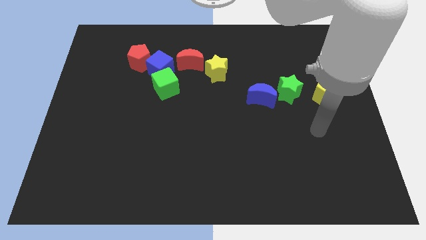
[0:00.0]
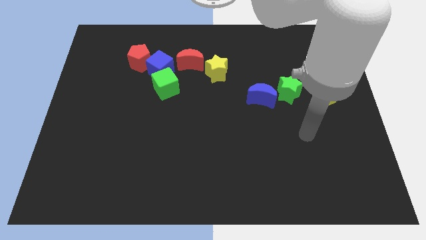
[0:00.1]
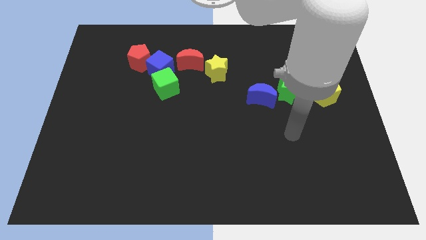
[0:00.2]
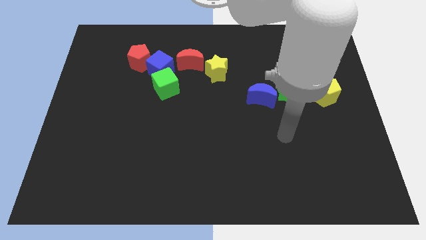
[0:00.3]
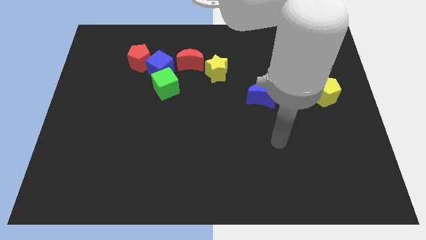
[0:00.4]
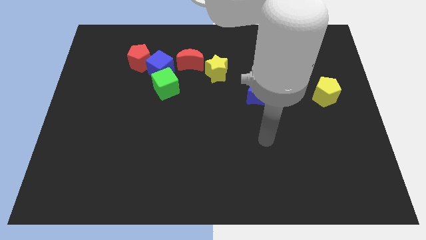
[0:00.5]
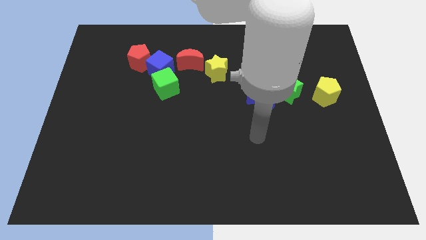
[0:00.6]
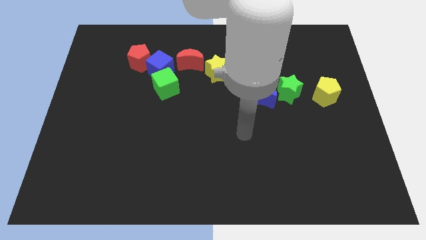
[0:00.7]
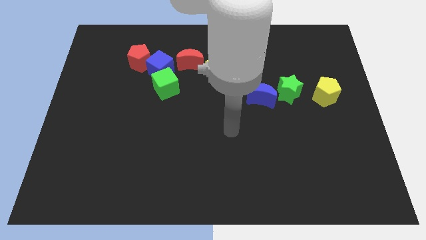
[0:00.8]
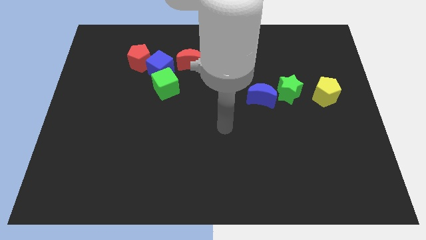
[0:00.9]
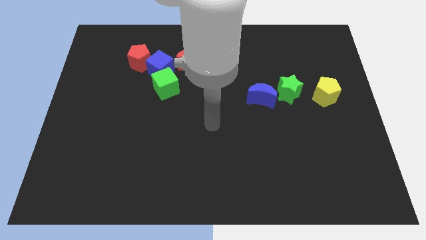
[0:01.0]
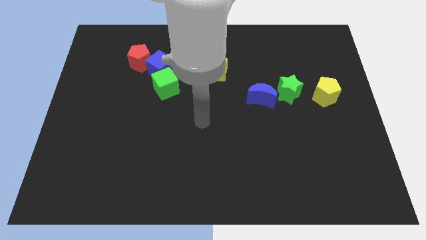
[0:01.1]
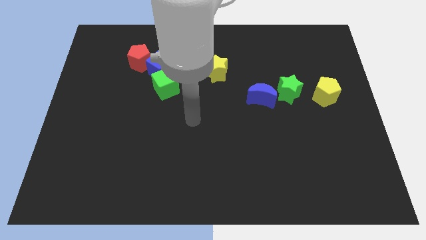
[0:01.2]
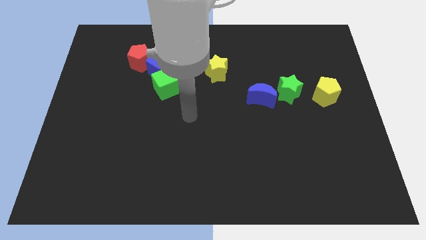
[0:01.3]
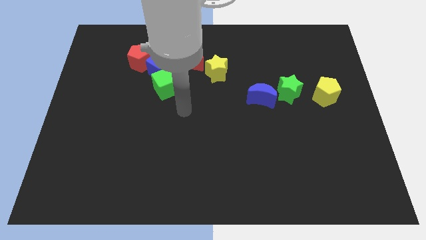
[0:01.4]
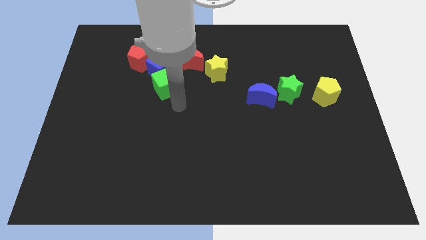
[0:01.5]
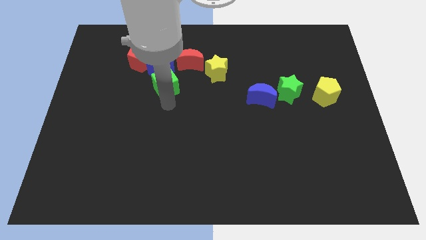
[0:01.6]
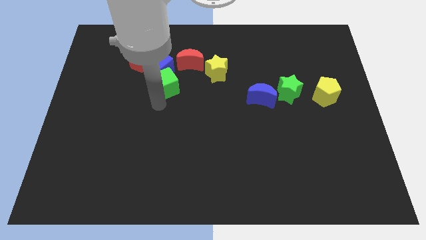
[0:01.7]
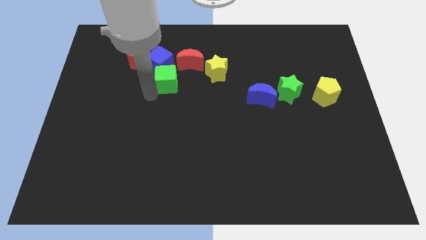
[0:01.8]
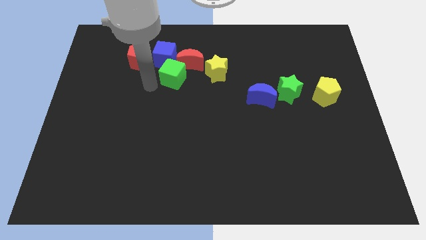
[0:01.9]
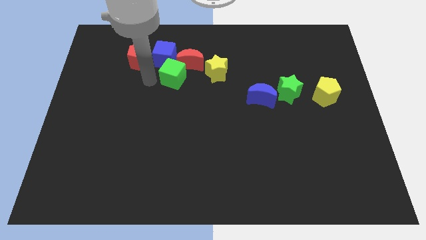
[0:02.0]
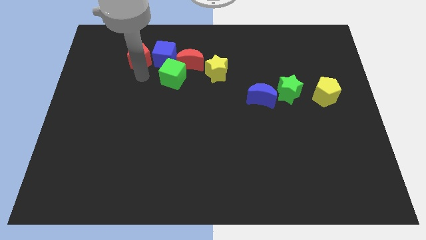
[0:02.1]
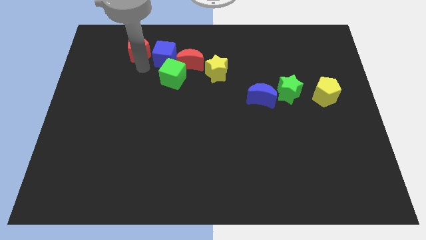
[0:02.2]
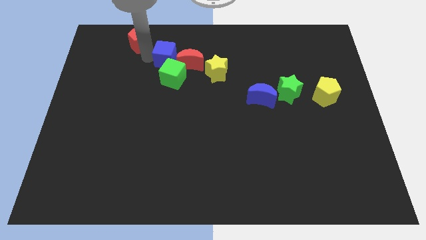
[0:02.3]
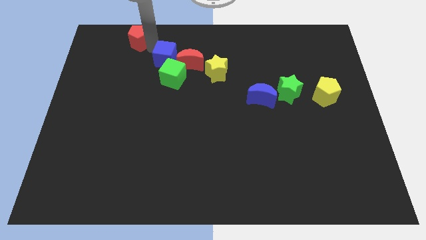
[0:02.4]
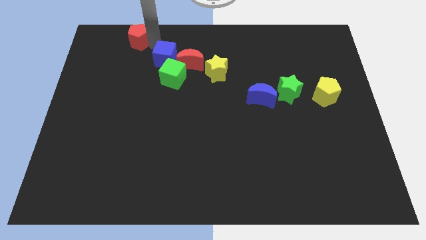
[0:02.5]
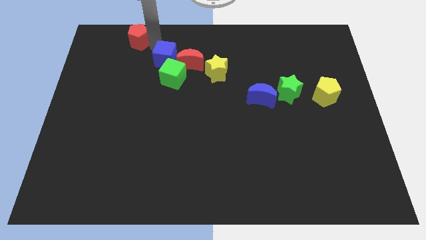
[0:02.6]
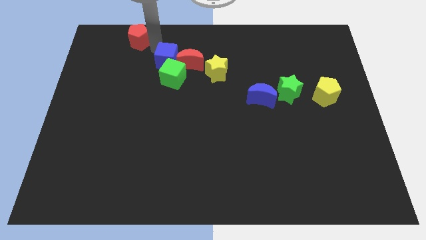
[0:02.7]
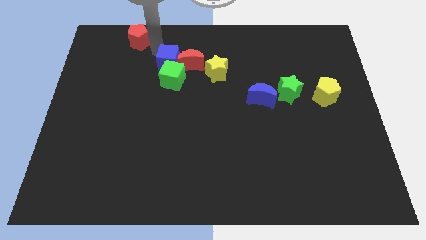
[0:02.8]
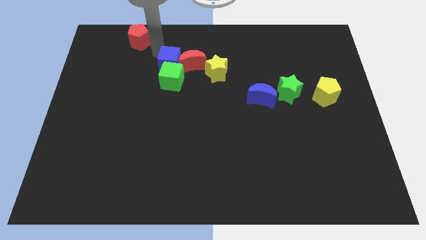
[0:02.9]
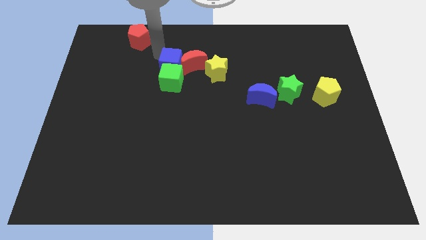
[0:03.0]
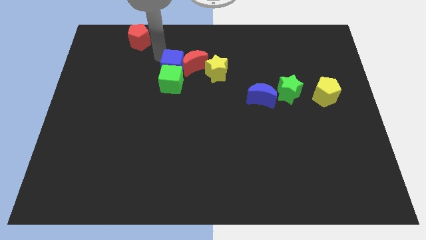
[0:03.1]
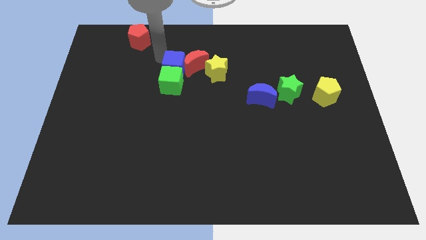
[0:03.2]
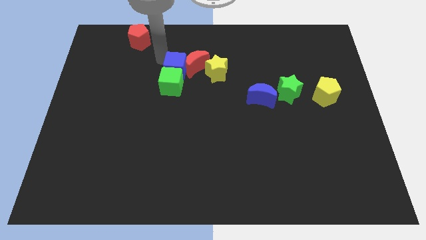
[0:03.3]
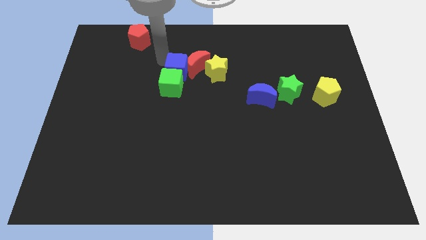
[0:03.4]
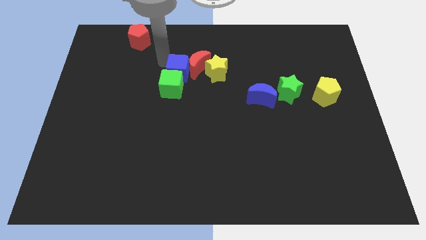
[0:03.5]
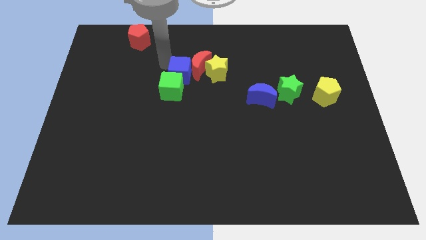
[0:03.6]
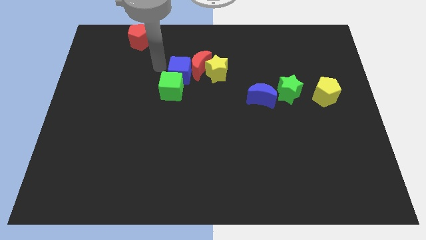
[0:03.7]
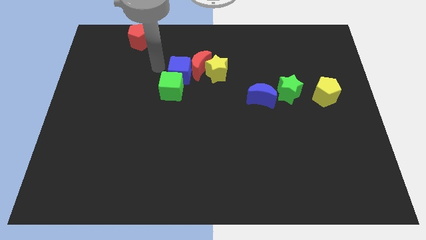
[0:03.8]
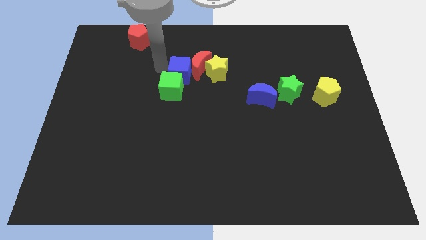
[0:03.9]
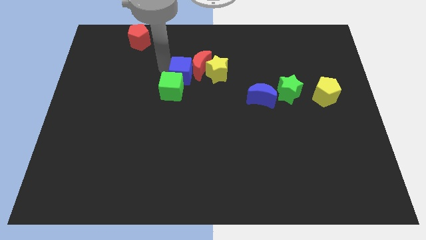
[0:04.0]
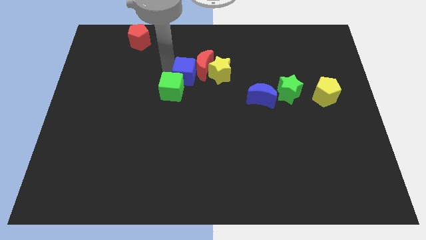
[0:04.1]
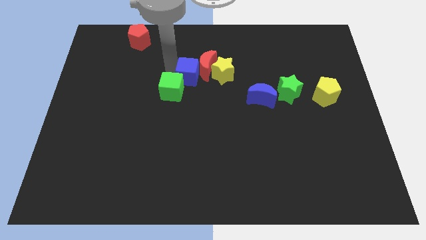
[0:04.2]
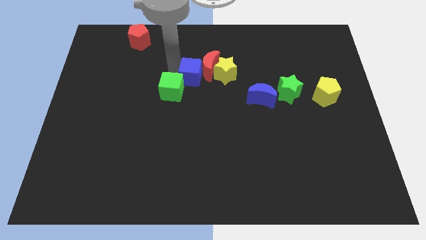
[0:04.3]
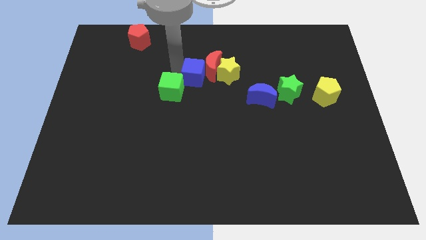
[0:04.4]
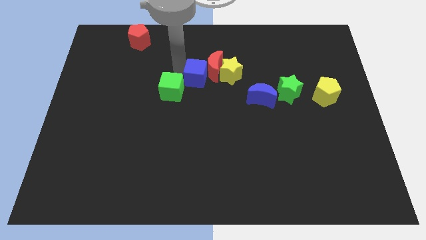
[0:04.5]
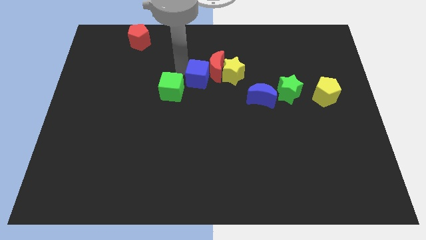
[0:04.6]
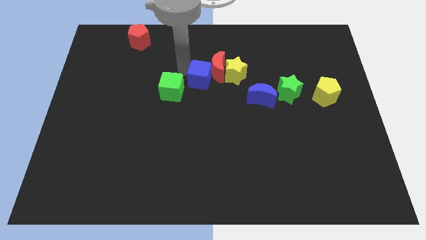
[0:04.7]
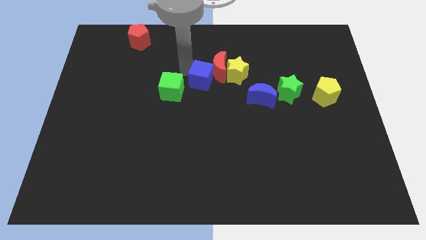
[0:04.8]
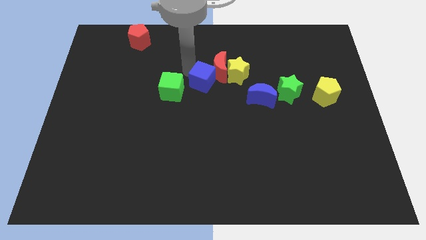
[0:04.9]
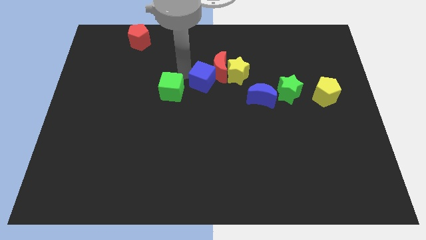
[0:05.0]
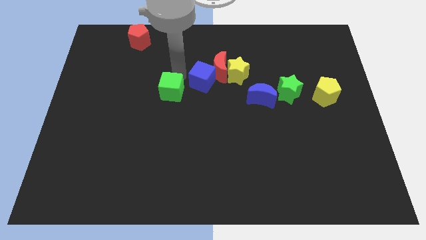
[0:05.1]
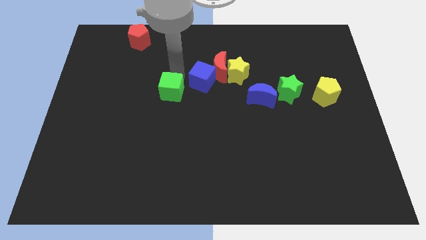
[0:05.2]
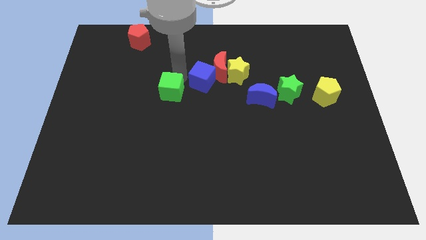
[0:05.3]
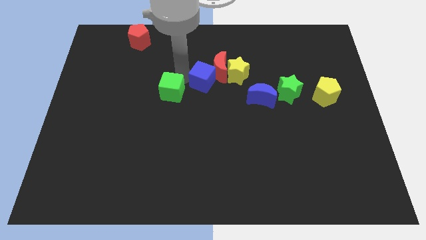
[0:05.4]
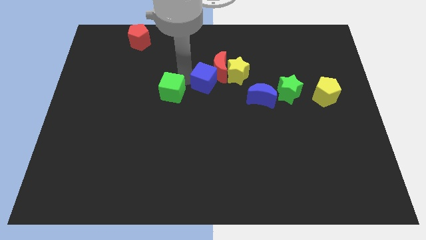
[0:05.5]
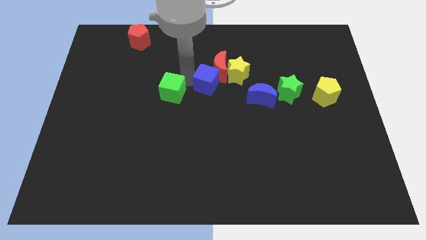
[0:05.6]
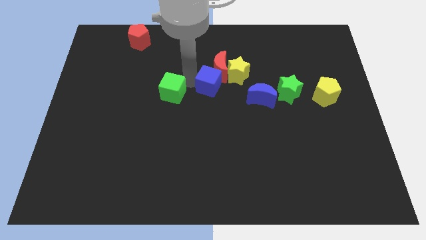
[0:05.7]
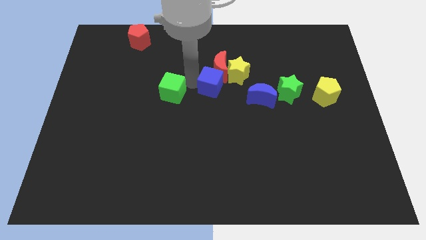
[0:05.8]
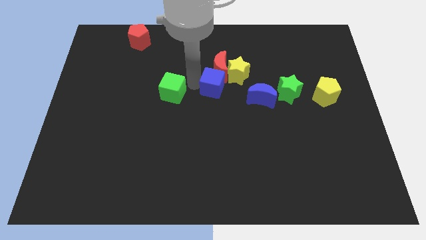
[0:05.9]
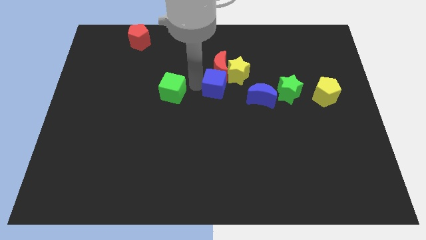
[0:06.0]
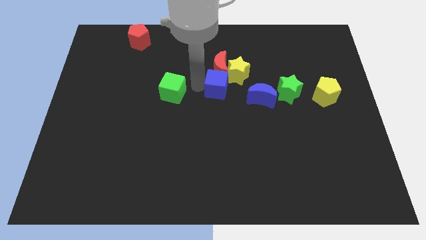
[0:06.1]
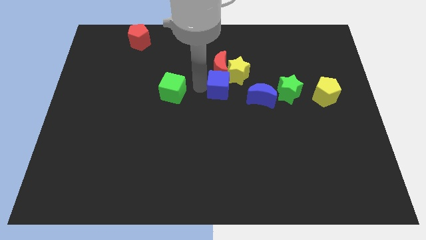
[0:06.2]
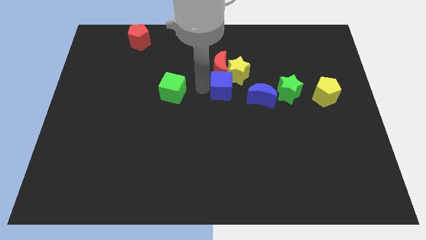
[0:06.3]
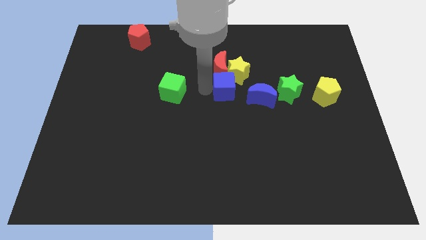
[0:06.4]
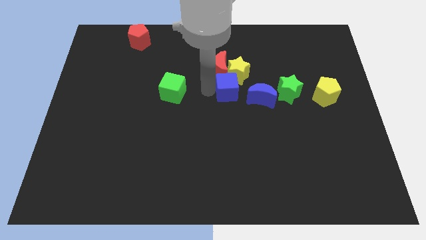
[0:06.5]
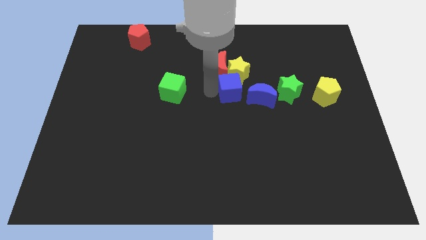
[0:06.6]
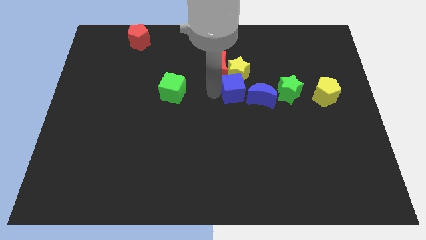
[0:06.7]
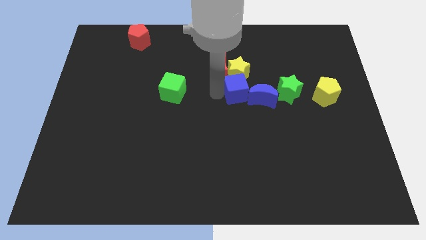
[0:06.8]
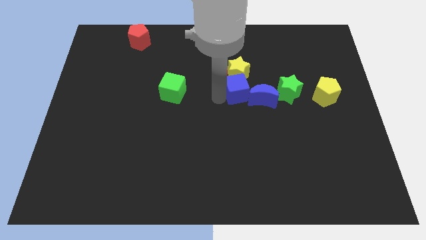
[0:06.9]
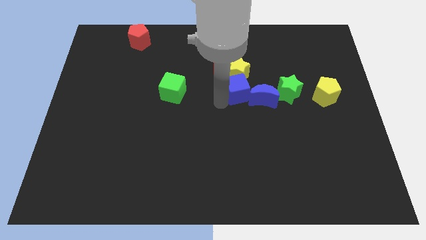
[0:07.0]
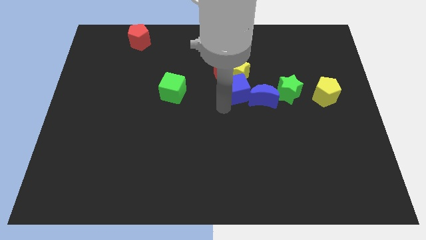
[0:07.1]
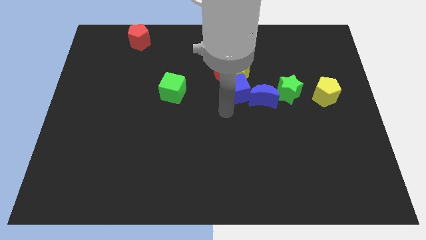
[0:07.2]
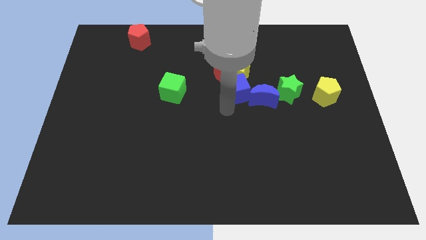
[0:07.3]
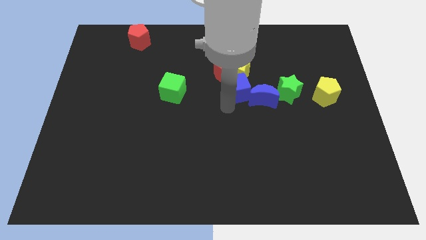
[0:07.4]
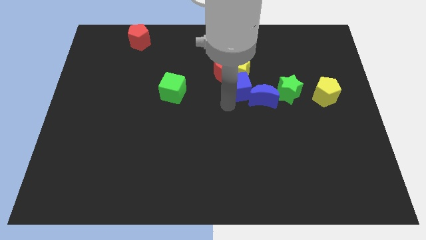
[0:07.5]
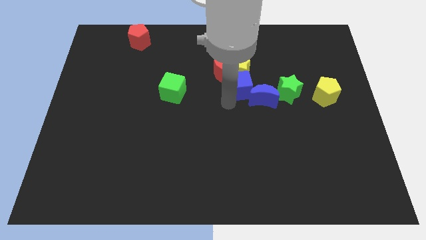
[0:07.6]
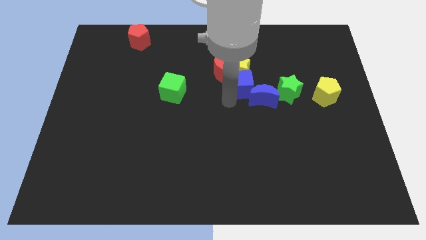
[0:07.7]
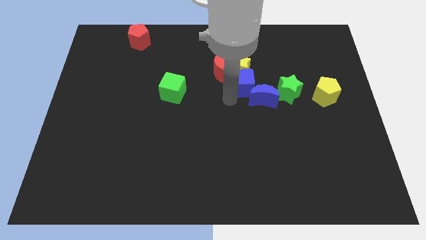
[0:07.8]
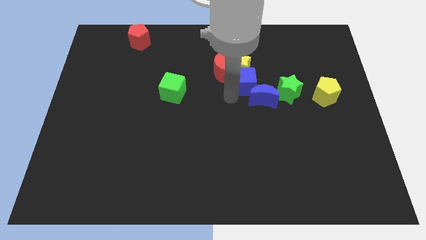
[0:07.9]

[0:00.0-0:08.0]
move the blue cube right
